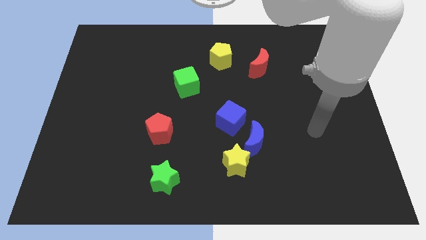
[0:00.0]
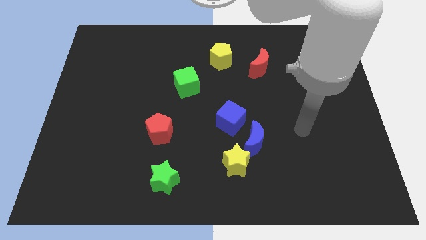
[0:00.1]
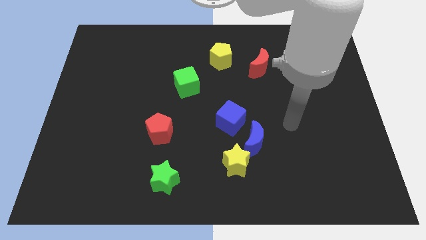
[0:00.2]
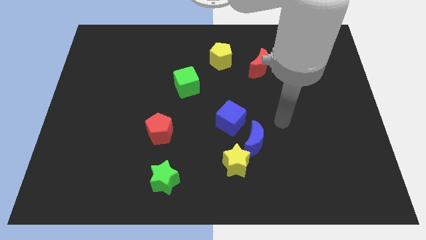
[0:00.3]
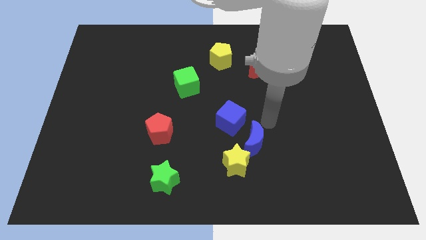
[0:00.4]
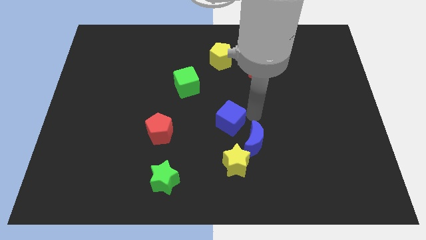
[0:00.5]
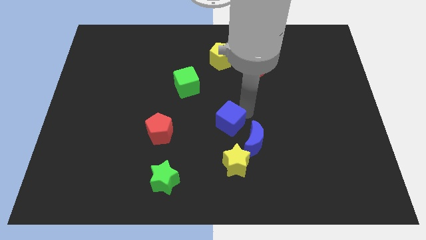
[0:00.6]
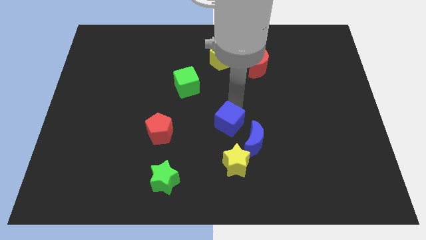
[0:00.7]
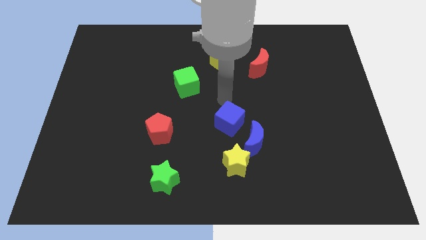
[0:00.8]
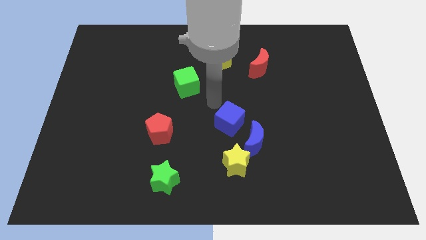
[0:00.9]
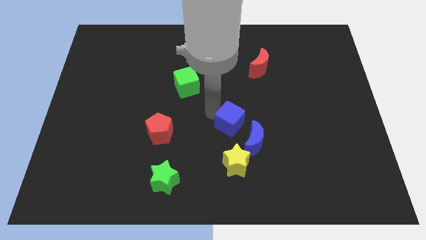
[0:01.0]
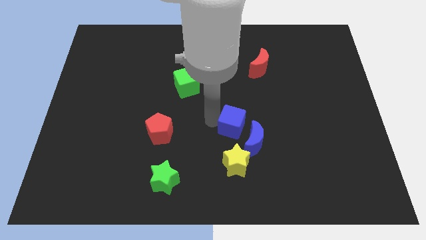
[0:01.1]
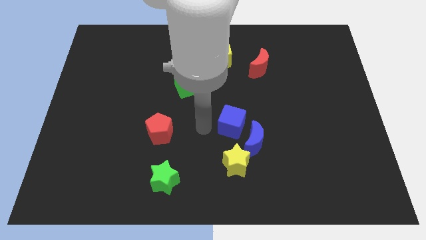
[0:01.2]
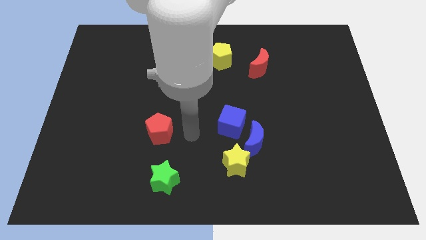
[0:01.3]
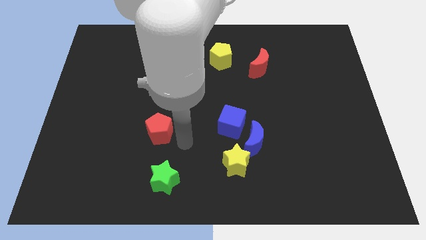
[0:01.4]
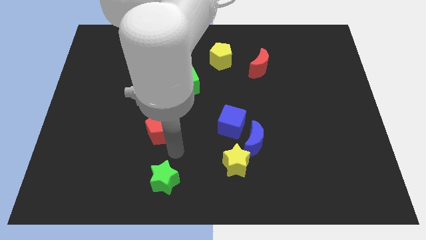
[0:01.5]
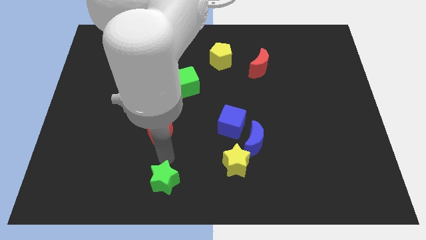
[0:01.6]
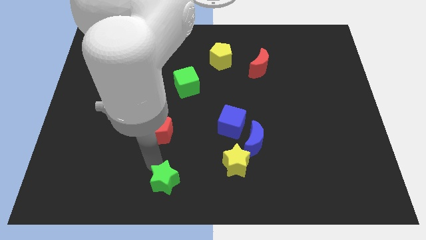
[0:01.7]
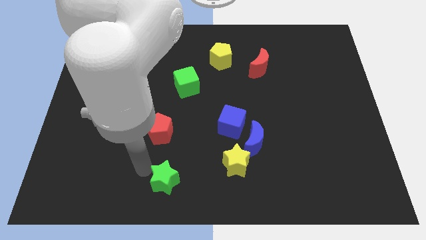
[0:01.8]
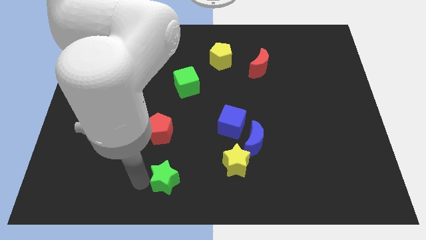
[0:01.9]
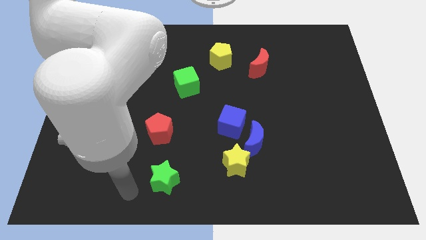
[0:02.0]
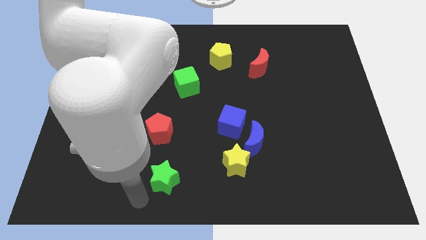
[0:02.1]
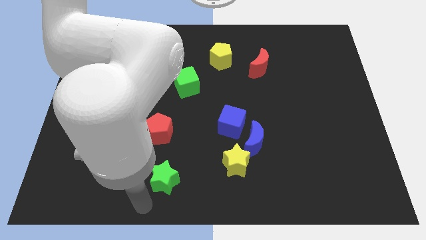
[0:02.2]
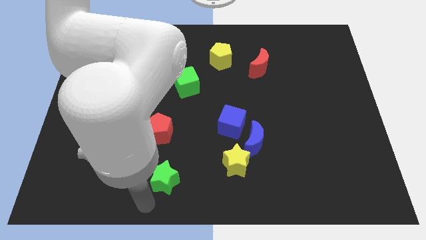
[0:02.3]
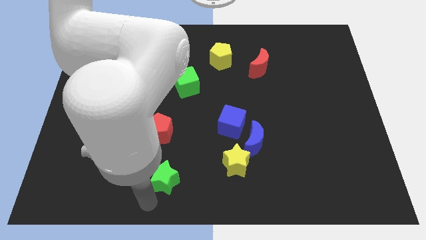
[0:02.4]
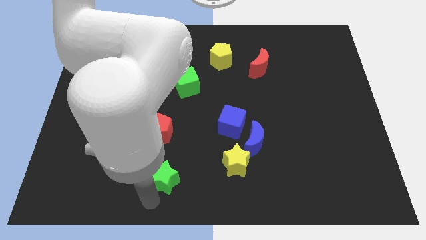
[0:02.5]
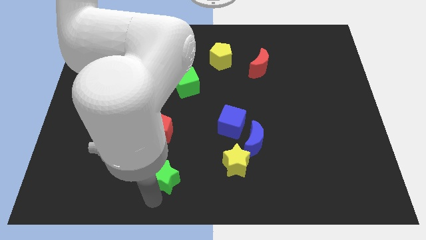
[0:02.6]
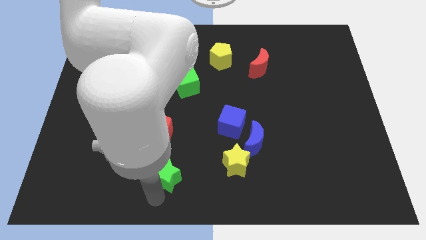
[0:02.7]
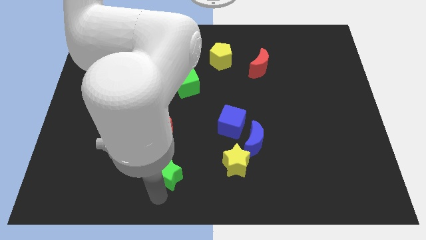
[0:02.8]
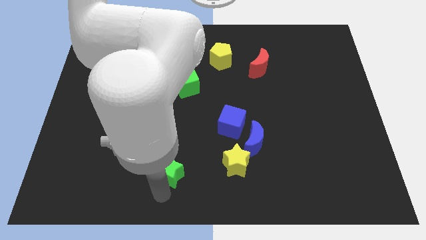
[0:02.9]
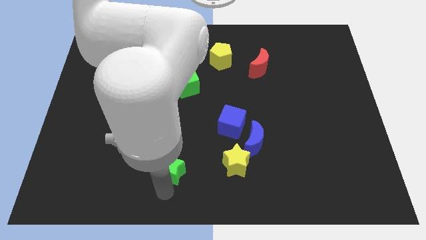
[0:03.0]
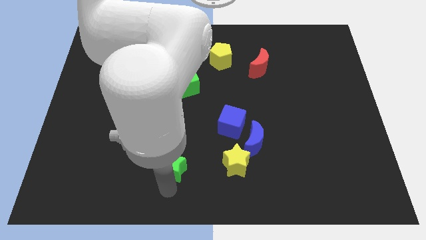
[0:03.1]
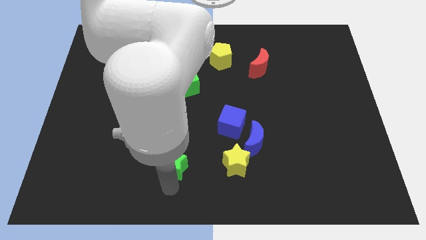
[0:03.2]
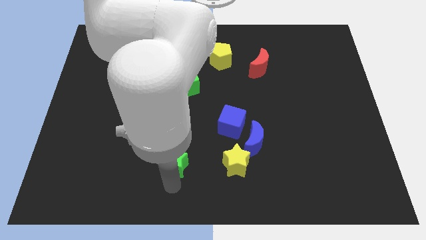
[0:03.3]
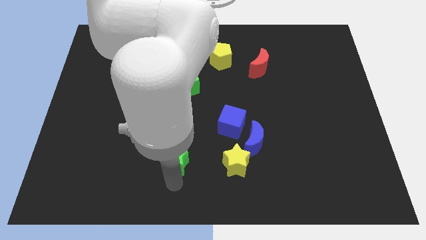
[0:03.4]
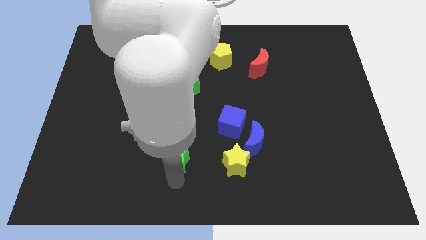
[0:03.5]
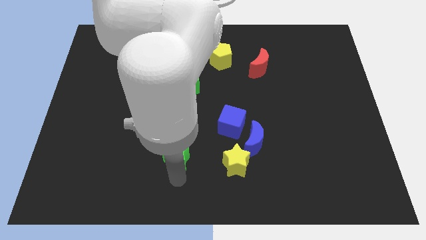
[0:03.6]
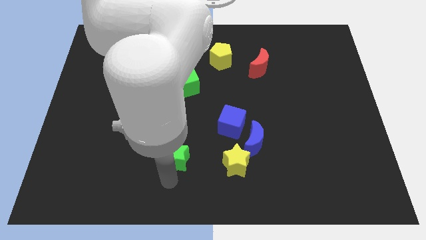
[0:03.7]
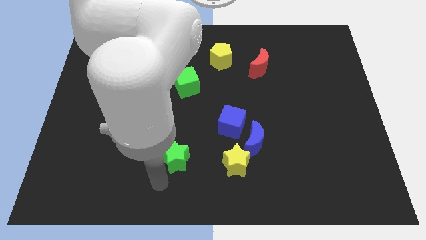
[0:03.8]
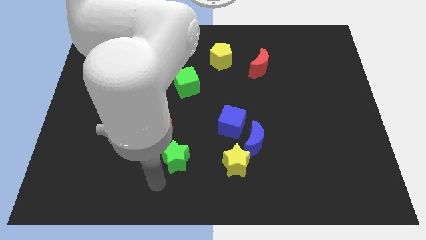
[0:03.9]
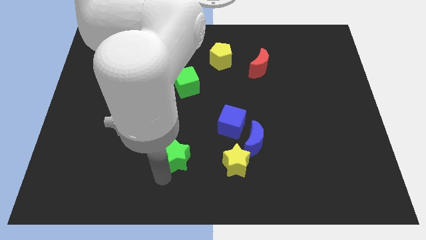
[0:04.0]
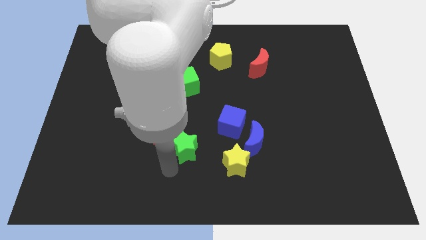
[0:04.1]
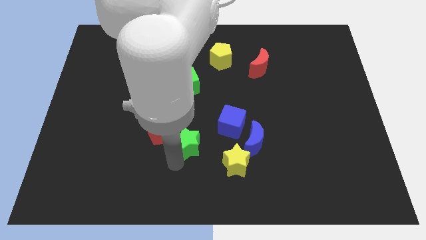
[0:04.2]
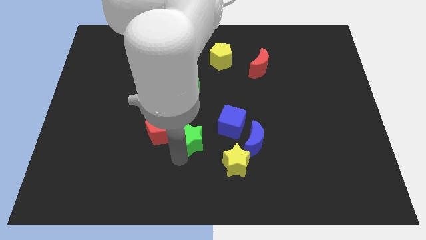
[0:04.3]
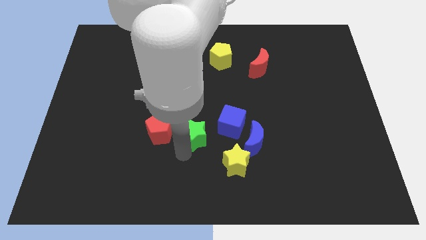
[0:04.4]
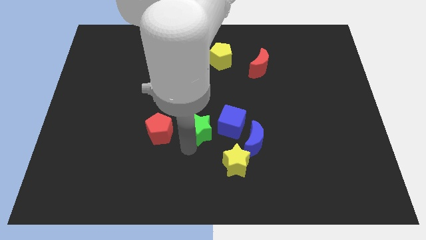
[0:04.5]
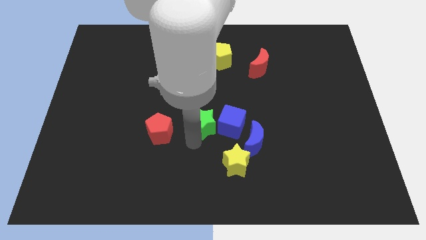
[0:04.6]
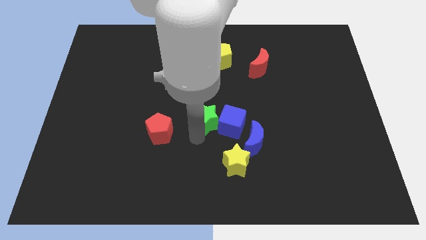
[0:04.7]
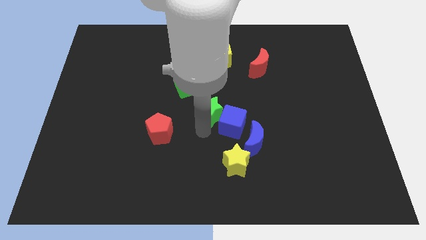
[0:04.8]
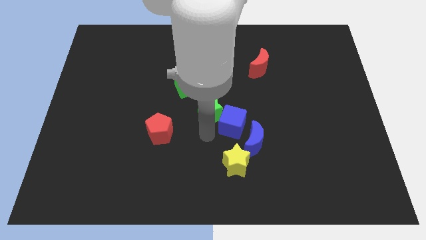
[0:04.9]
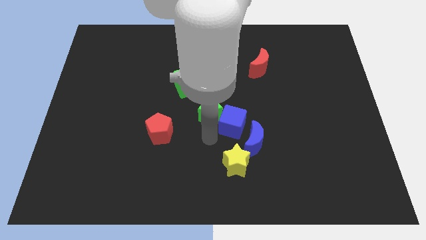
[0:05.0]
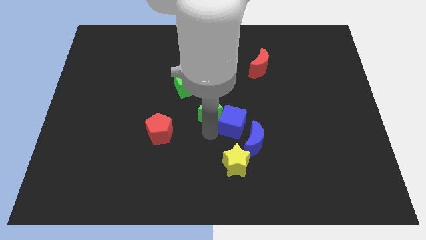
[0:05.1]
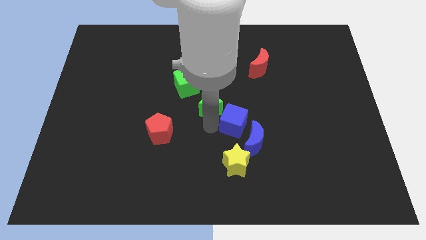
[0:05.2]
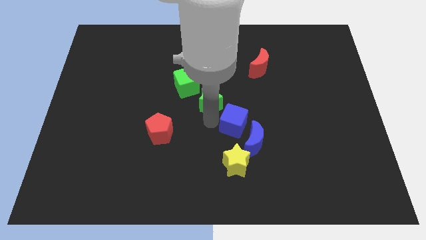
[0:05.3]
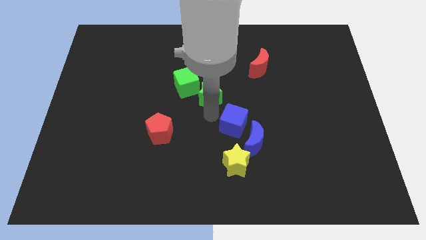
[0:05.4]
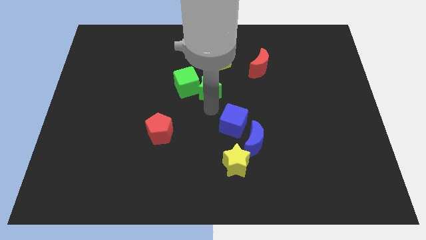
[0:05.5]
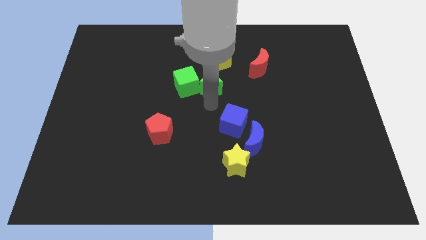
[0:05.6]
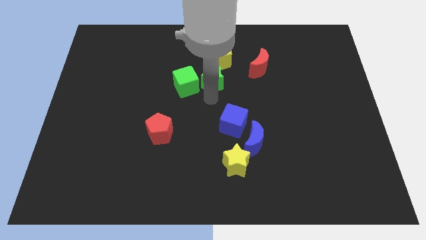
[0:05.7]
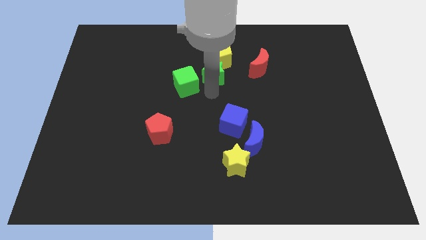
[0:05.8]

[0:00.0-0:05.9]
move the green star to the left side of the red moon
